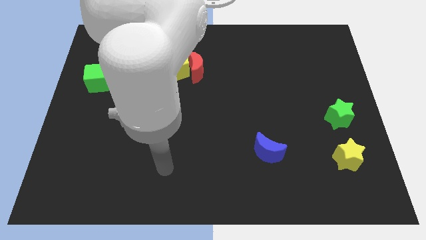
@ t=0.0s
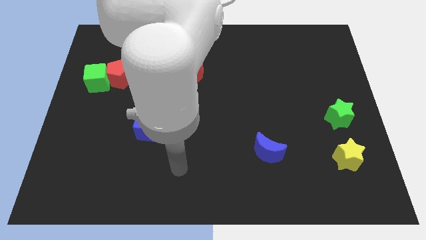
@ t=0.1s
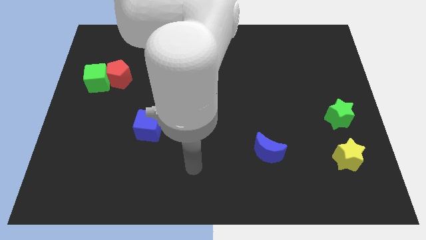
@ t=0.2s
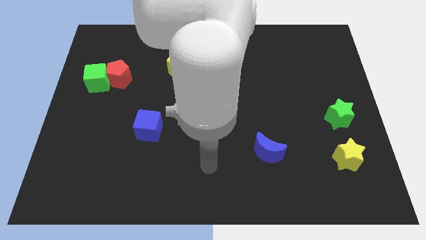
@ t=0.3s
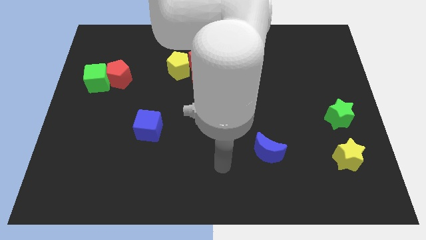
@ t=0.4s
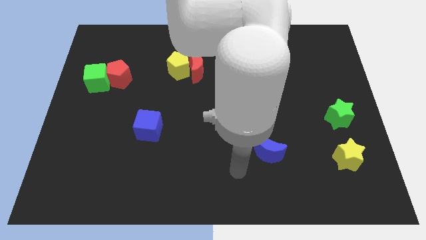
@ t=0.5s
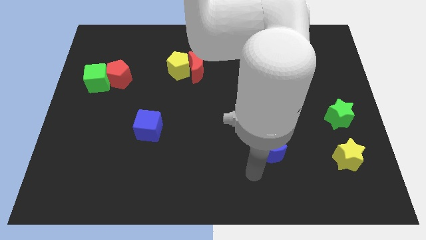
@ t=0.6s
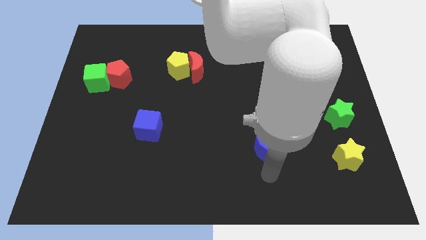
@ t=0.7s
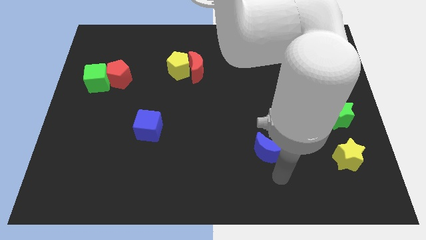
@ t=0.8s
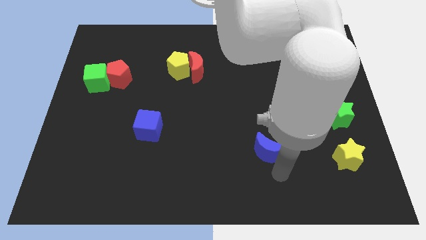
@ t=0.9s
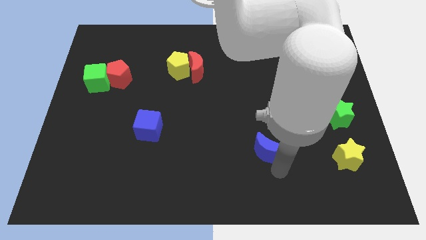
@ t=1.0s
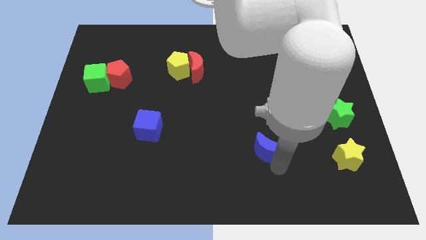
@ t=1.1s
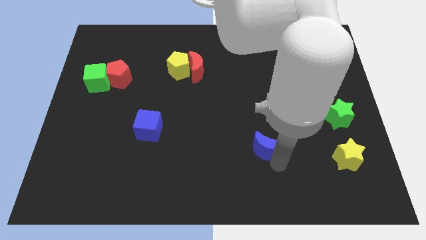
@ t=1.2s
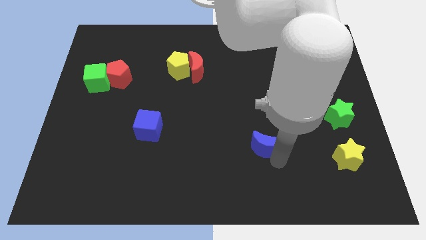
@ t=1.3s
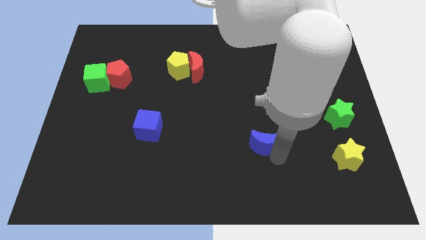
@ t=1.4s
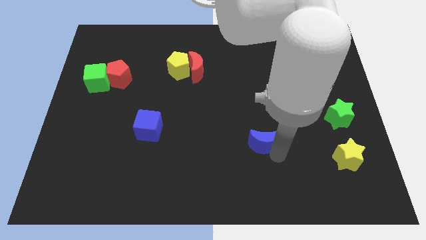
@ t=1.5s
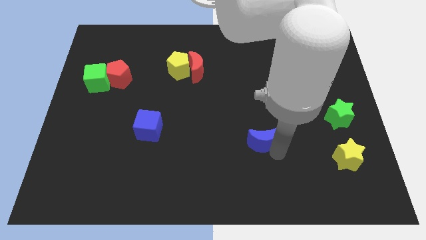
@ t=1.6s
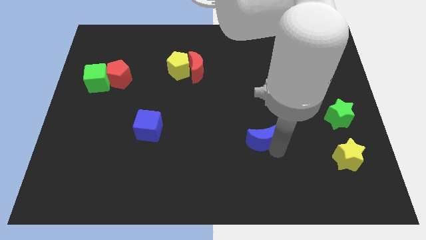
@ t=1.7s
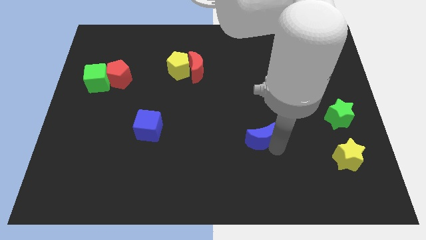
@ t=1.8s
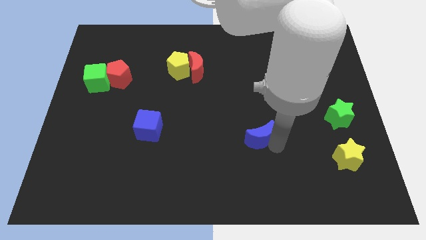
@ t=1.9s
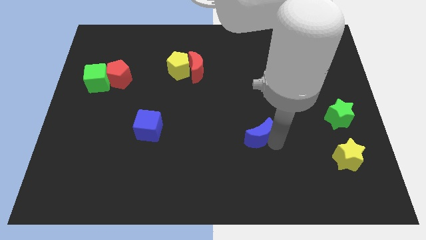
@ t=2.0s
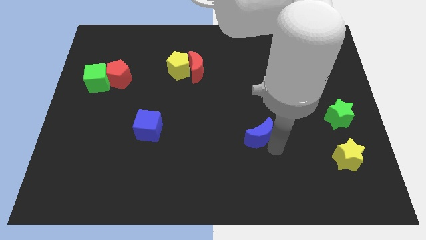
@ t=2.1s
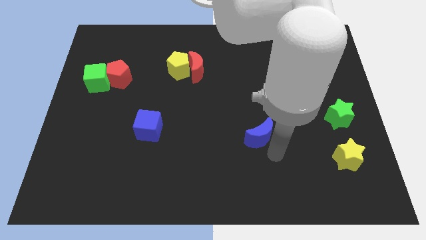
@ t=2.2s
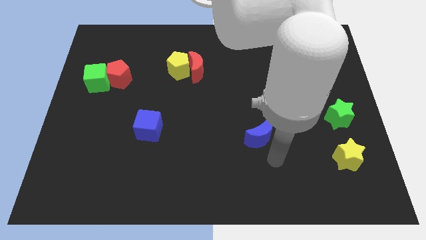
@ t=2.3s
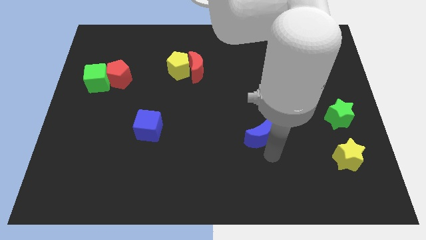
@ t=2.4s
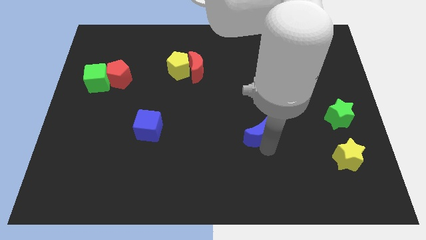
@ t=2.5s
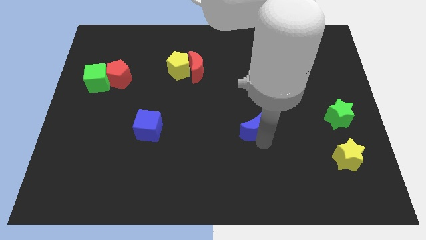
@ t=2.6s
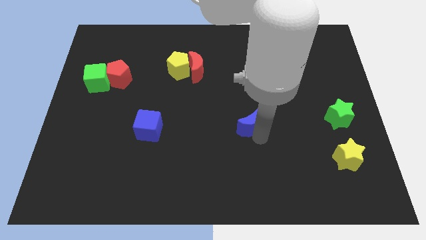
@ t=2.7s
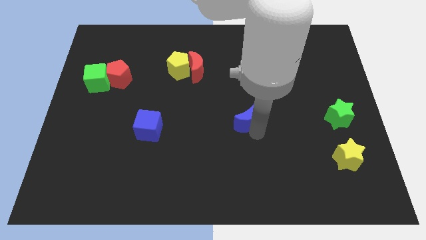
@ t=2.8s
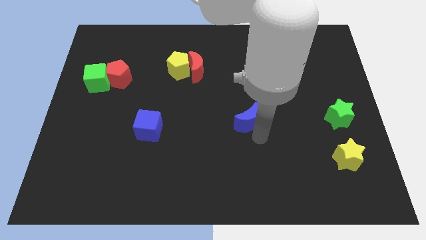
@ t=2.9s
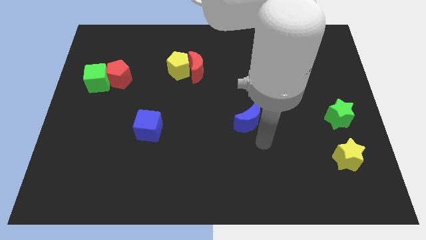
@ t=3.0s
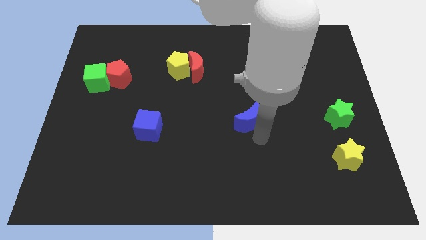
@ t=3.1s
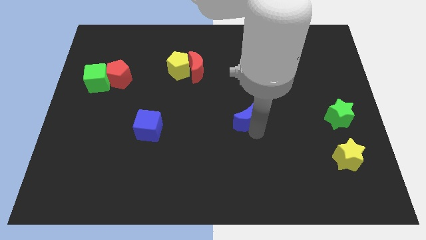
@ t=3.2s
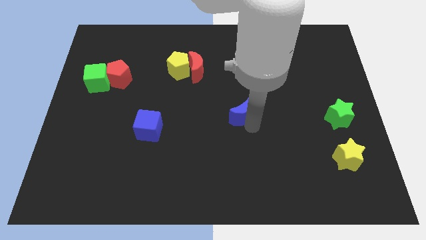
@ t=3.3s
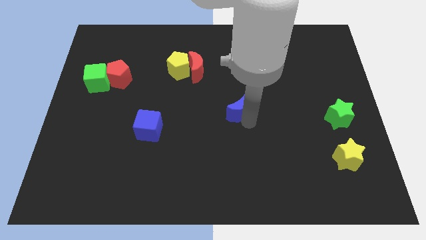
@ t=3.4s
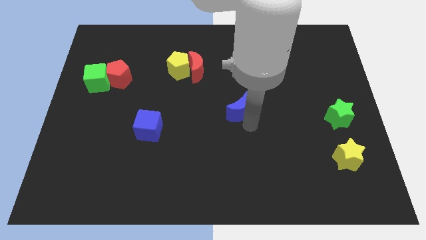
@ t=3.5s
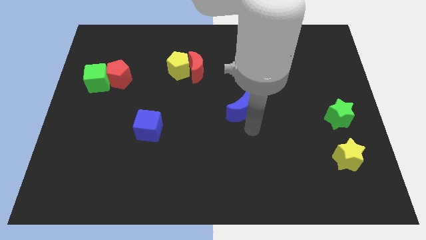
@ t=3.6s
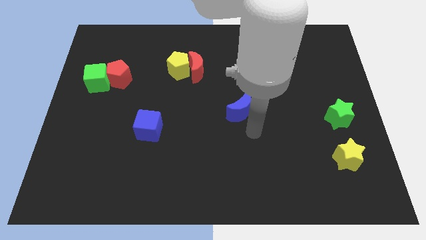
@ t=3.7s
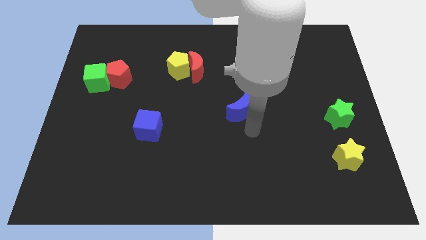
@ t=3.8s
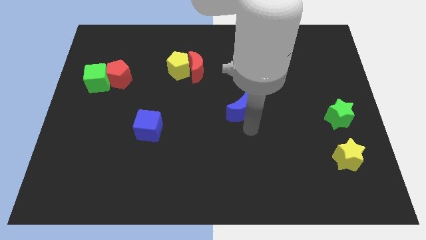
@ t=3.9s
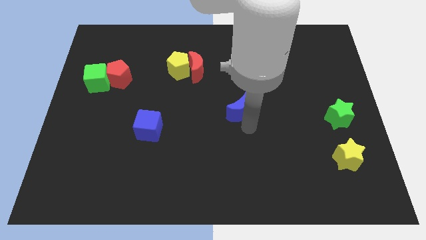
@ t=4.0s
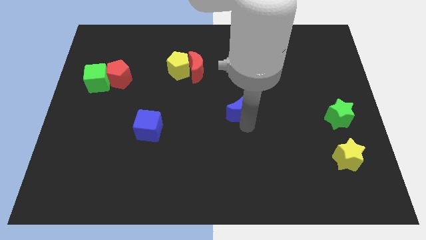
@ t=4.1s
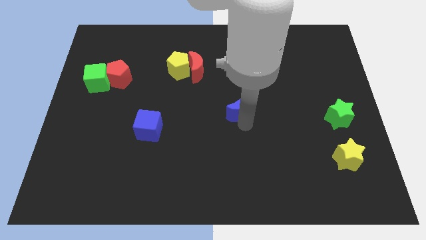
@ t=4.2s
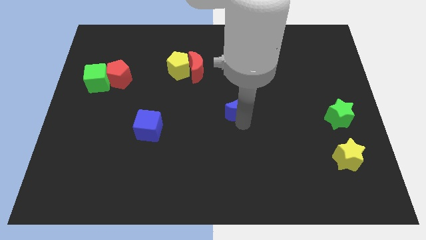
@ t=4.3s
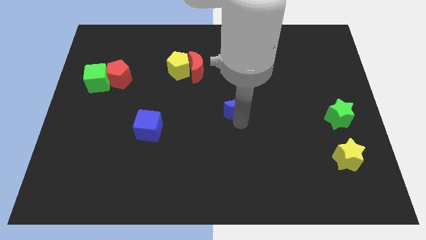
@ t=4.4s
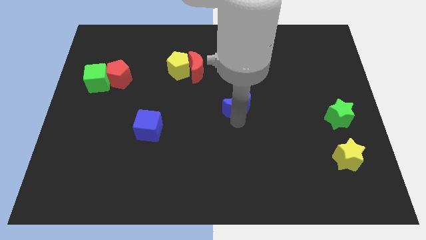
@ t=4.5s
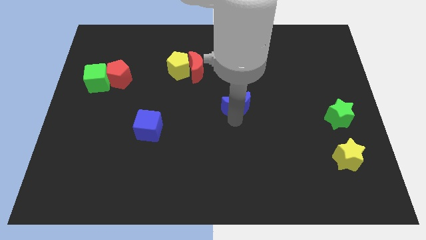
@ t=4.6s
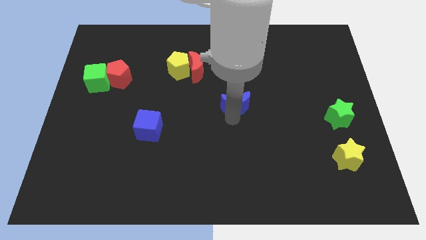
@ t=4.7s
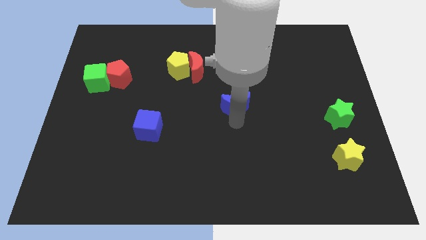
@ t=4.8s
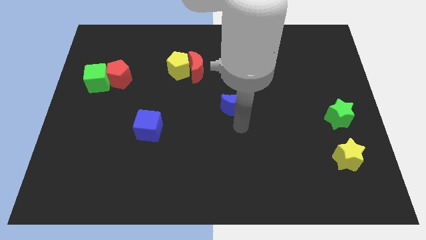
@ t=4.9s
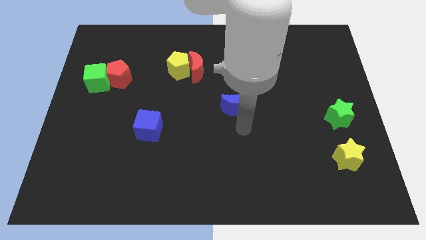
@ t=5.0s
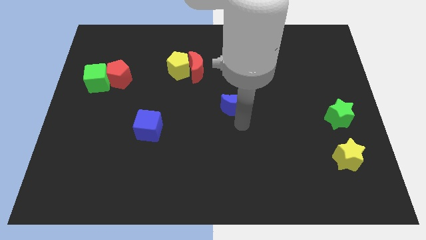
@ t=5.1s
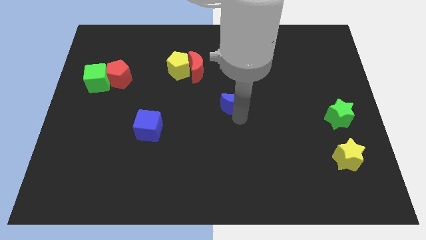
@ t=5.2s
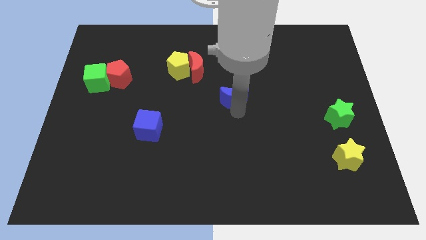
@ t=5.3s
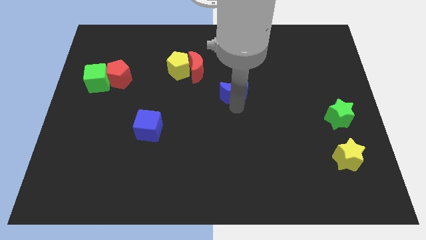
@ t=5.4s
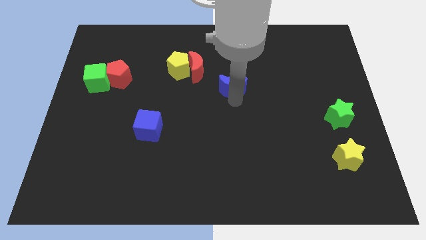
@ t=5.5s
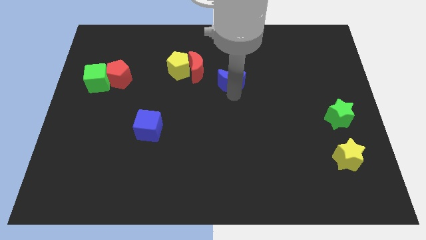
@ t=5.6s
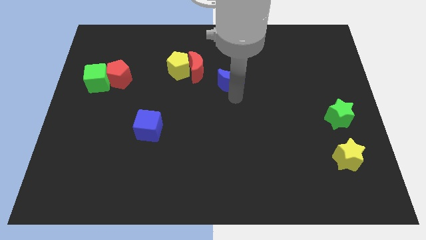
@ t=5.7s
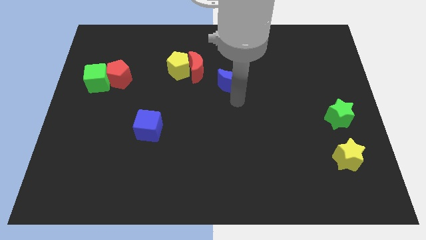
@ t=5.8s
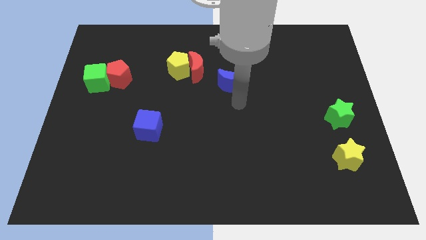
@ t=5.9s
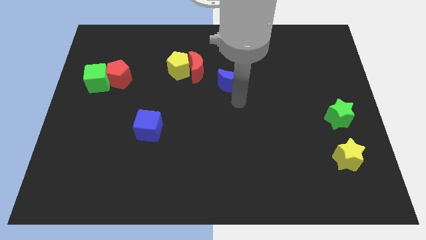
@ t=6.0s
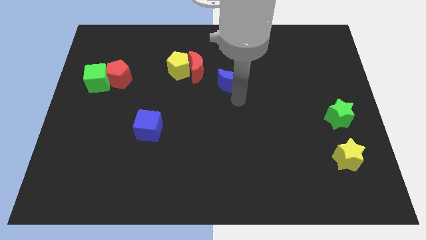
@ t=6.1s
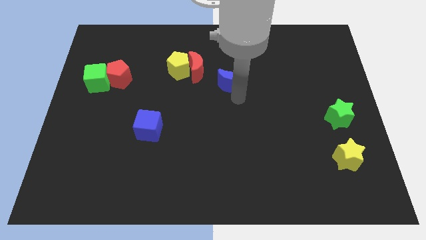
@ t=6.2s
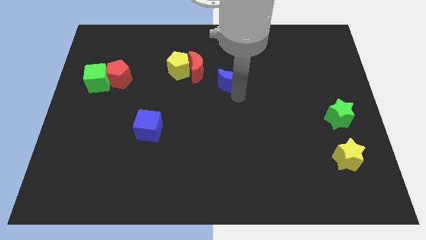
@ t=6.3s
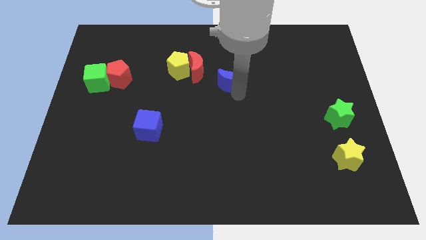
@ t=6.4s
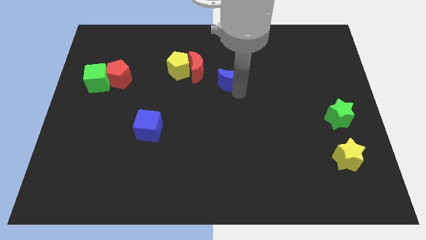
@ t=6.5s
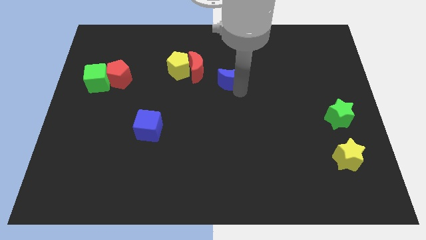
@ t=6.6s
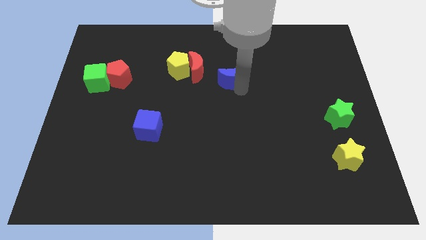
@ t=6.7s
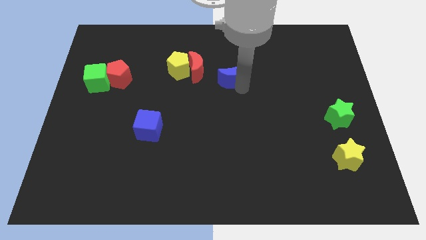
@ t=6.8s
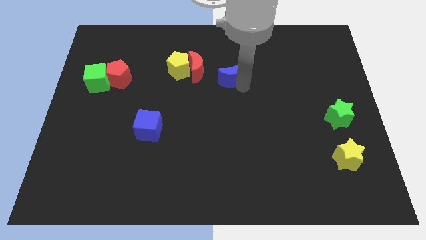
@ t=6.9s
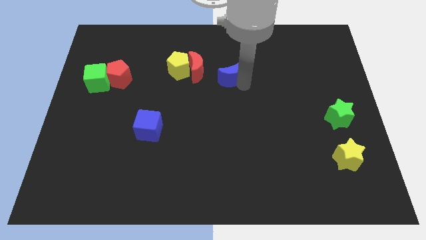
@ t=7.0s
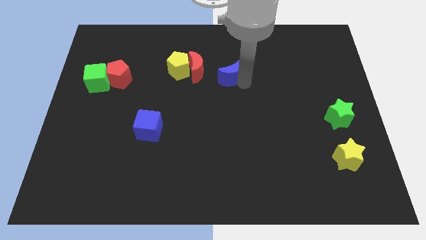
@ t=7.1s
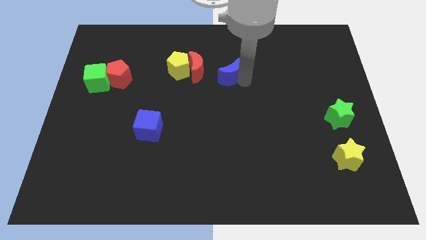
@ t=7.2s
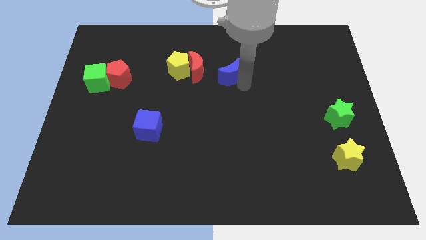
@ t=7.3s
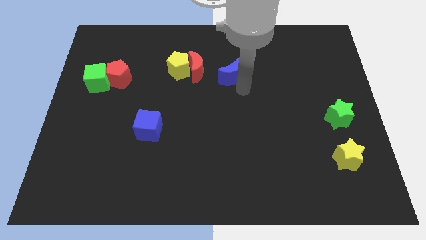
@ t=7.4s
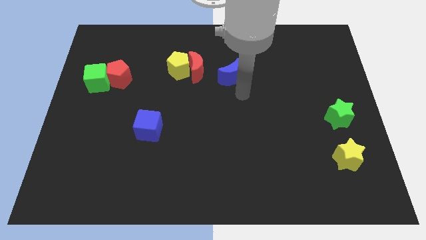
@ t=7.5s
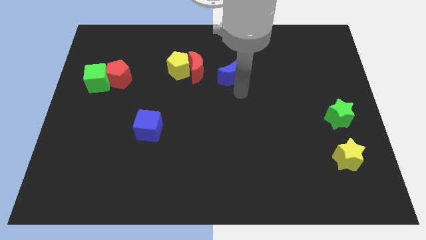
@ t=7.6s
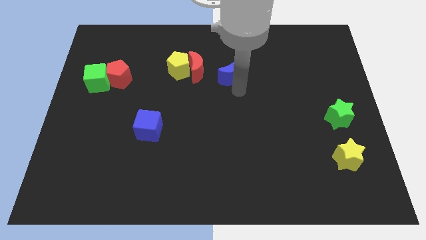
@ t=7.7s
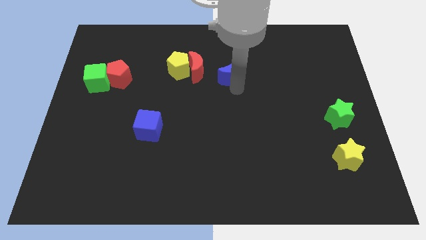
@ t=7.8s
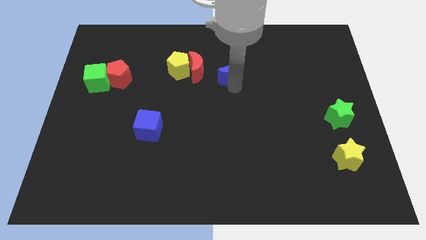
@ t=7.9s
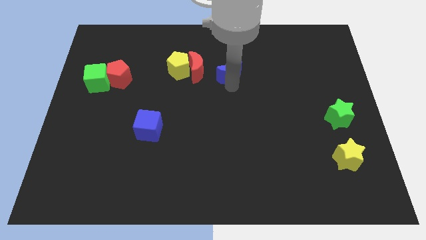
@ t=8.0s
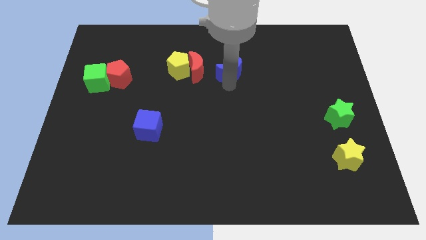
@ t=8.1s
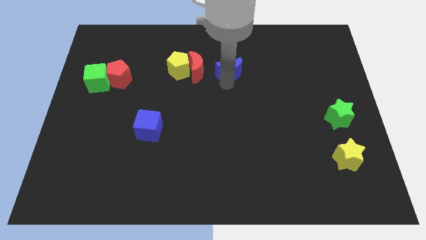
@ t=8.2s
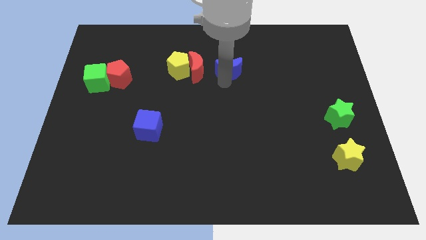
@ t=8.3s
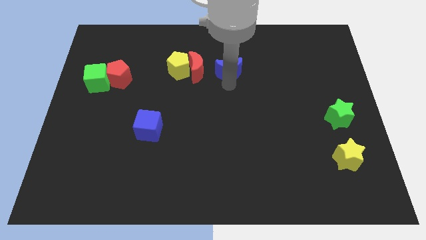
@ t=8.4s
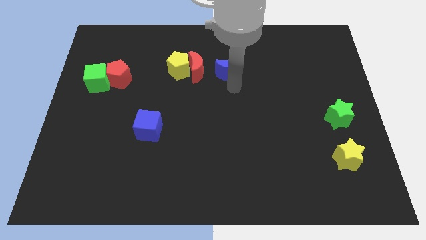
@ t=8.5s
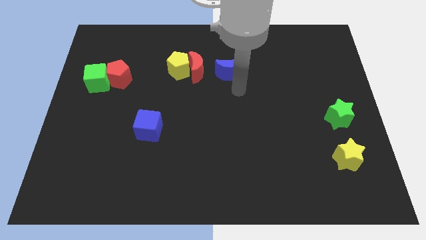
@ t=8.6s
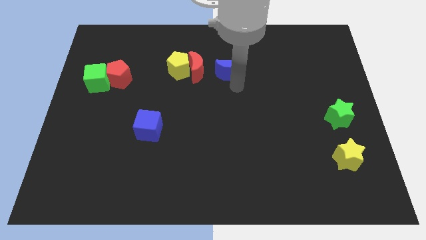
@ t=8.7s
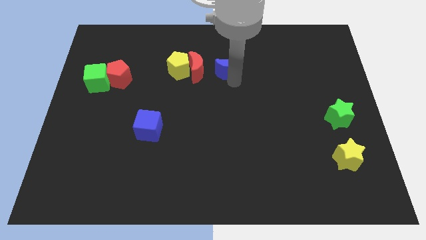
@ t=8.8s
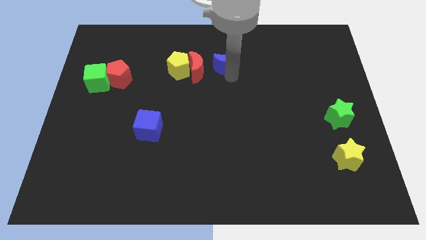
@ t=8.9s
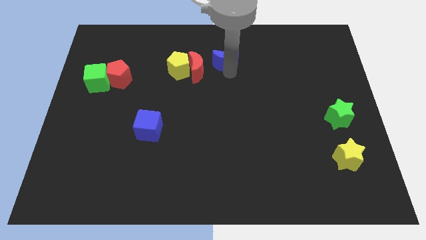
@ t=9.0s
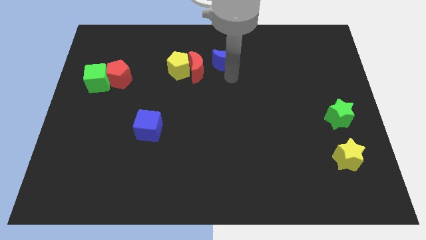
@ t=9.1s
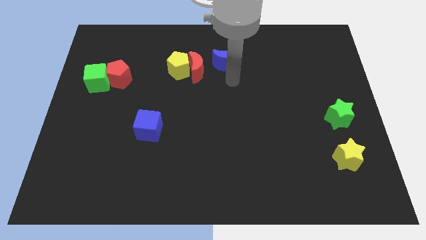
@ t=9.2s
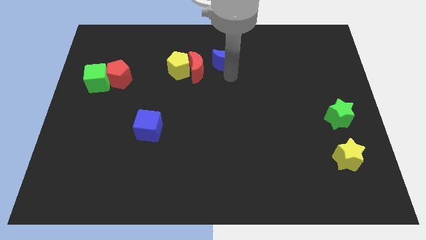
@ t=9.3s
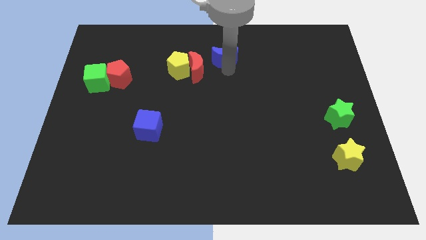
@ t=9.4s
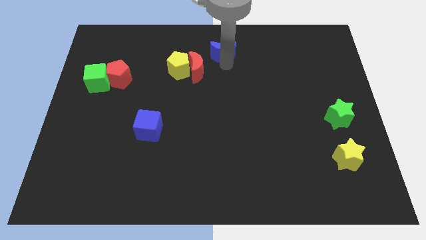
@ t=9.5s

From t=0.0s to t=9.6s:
put the blue moon to the towards your base
